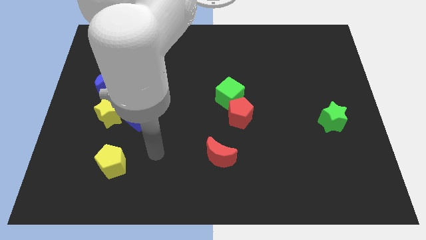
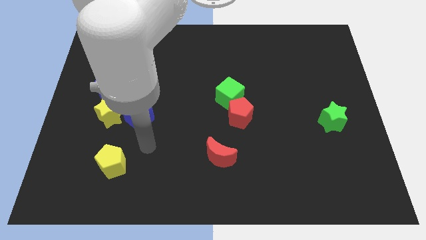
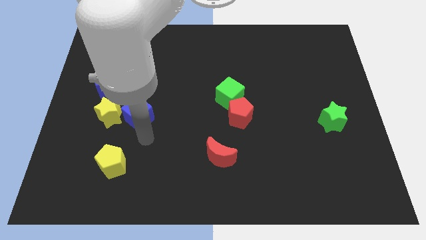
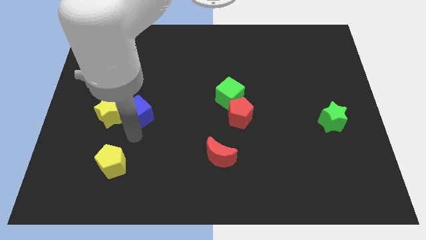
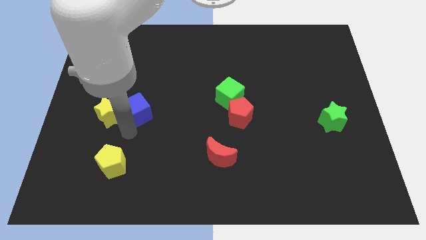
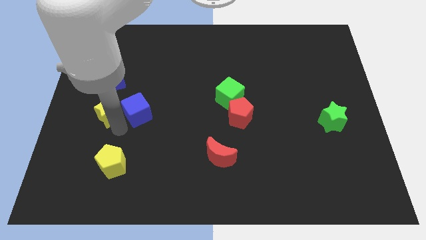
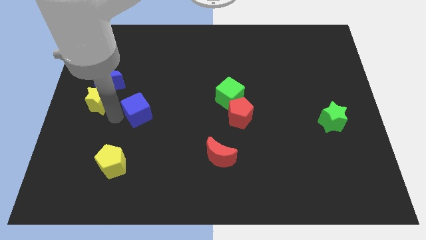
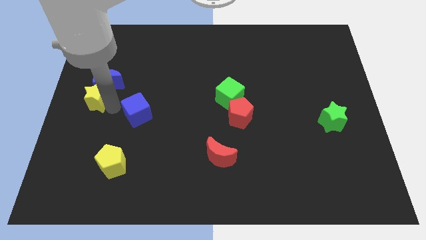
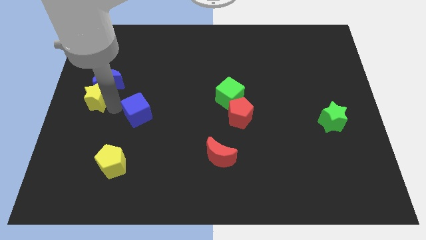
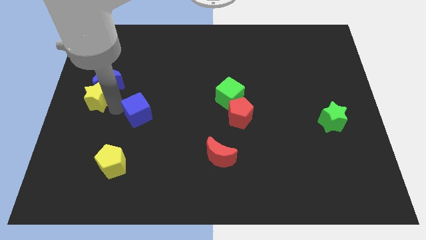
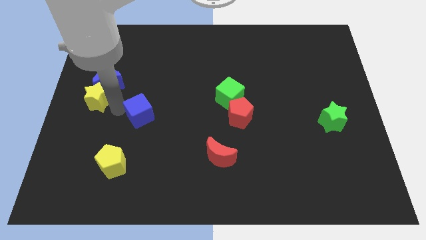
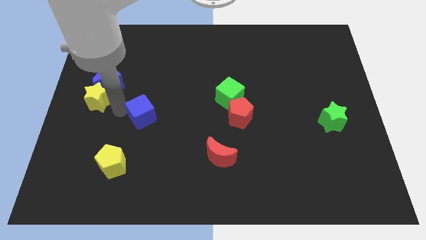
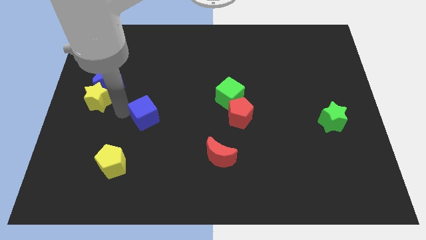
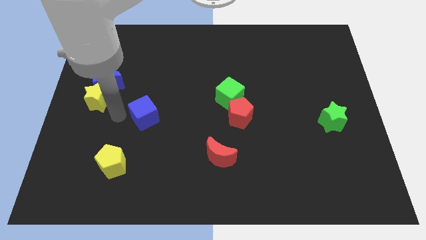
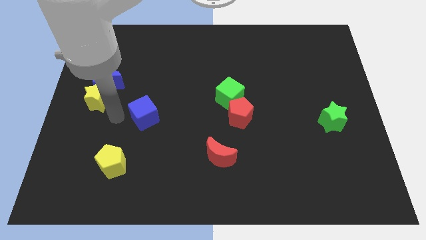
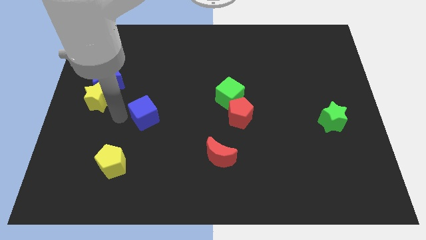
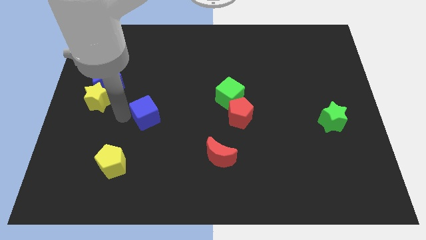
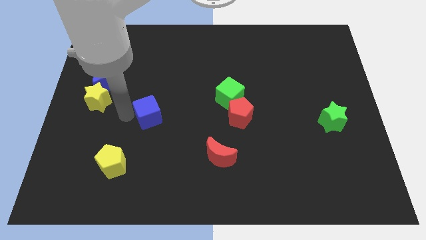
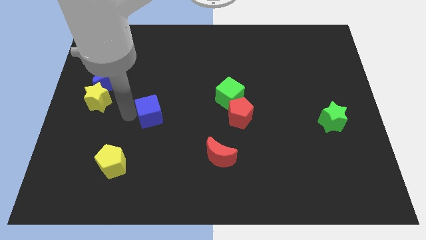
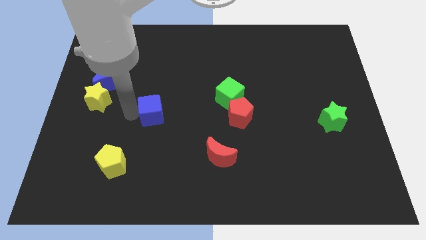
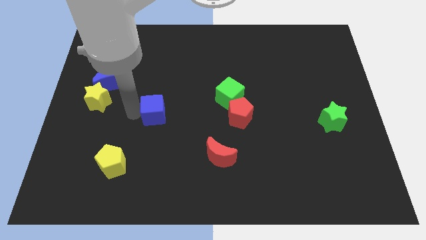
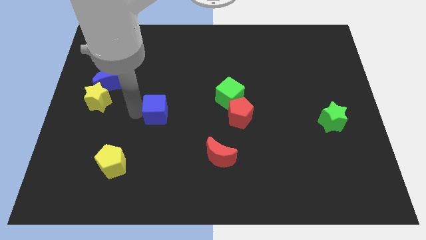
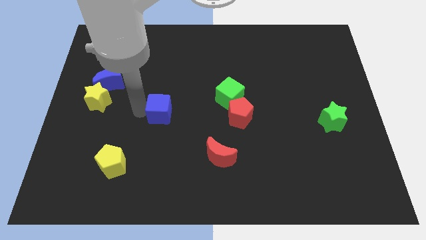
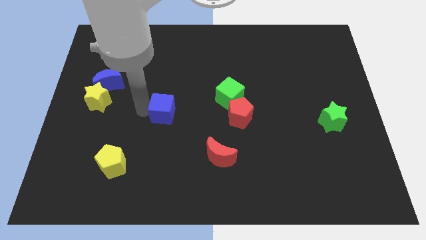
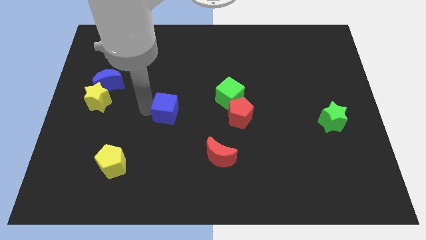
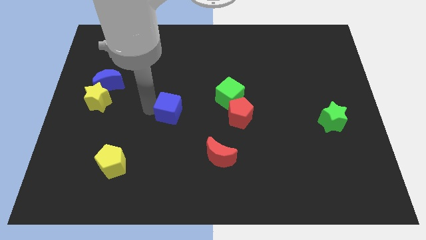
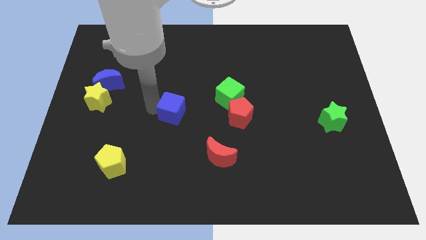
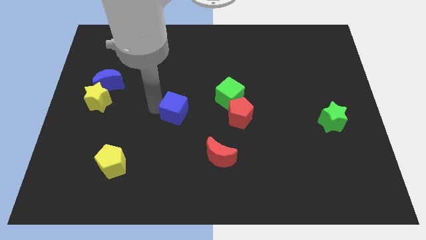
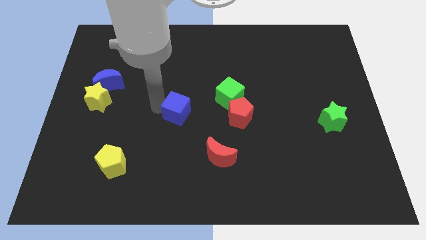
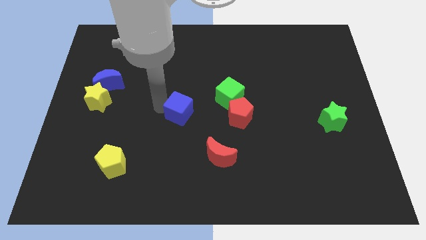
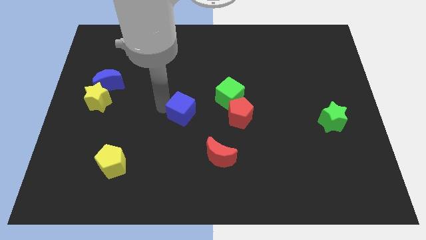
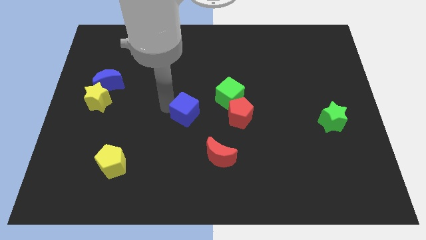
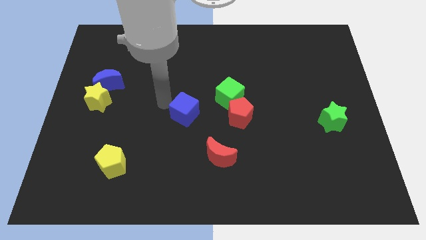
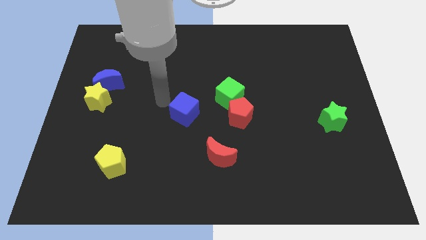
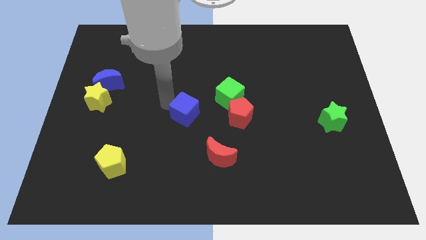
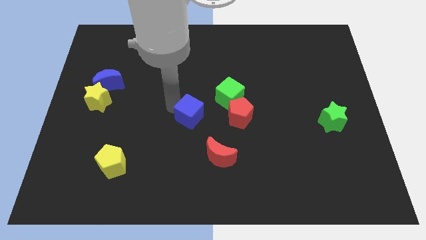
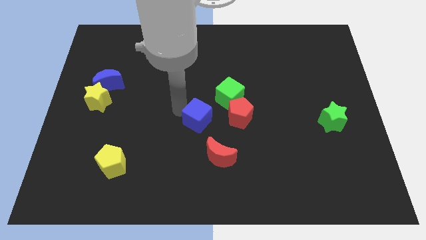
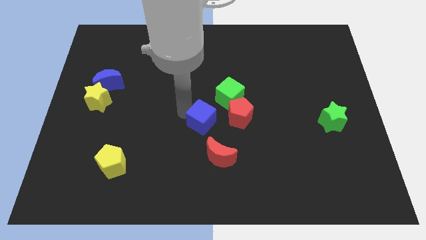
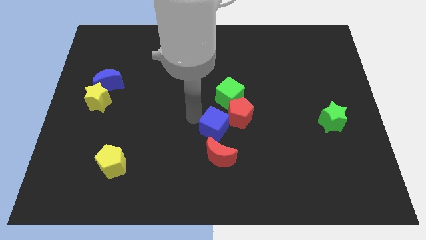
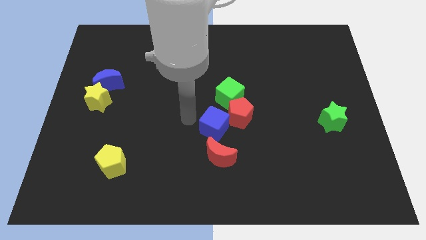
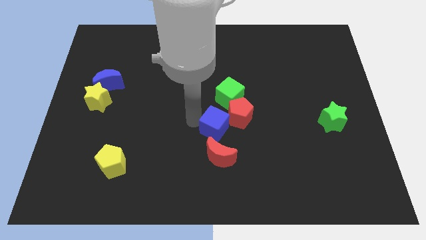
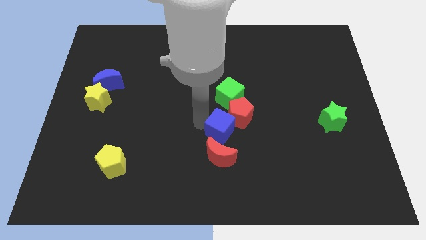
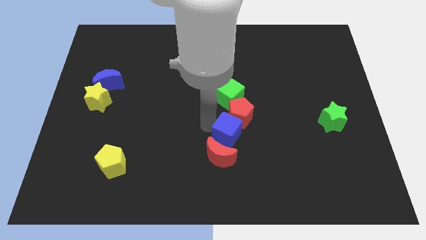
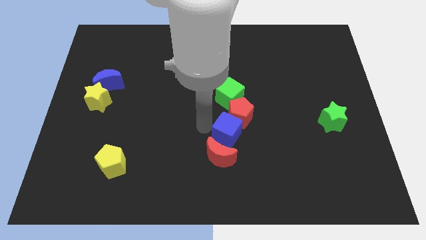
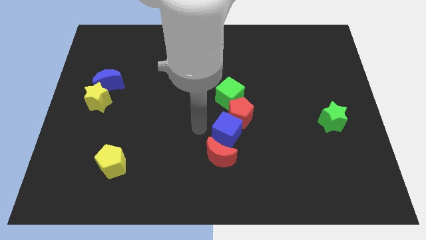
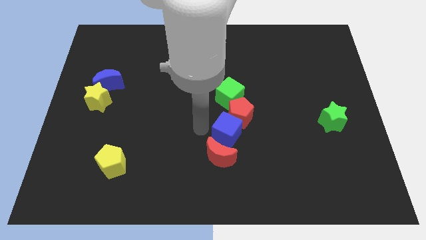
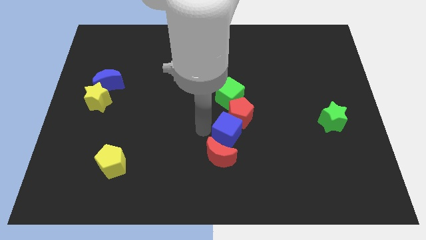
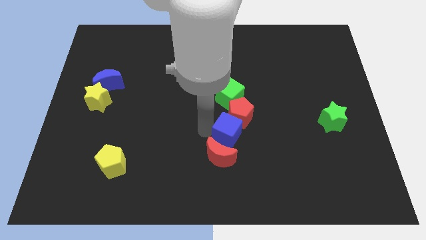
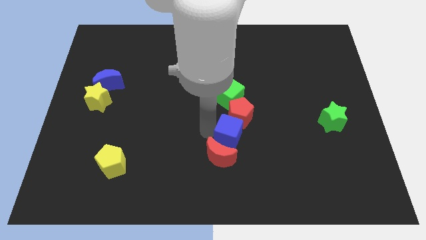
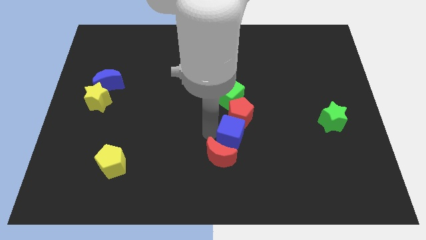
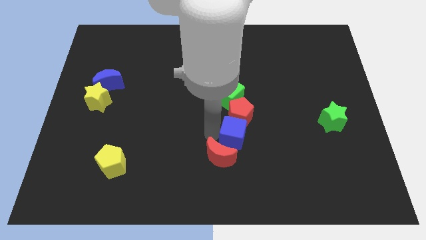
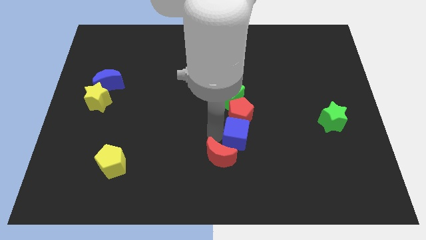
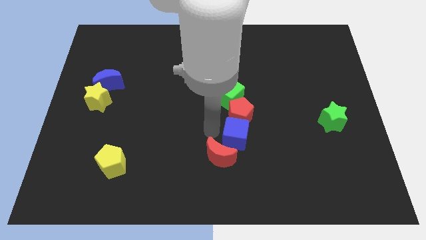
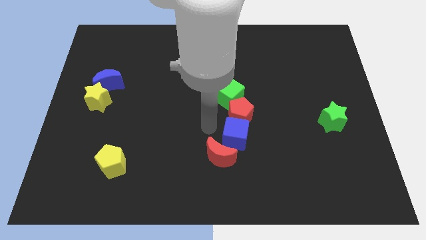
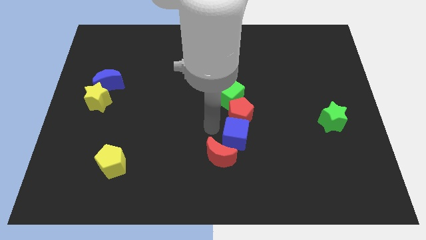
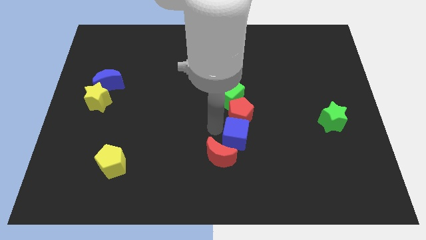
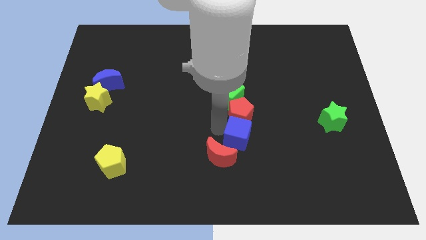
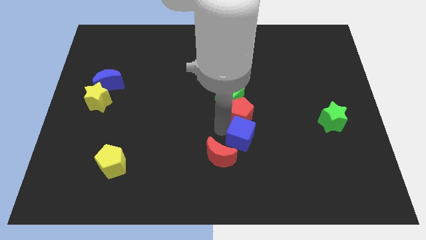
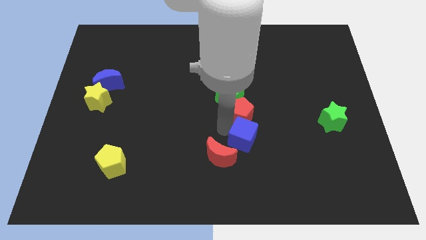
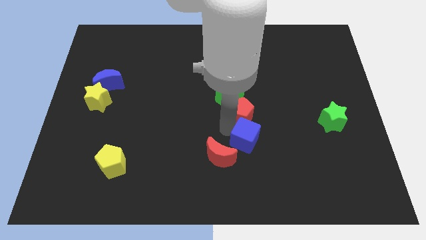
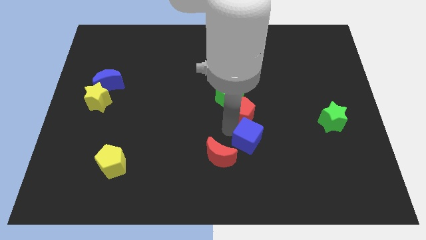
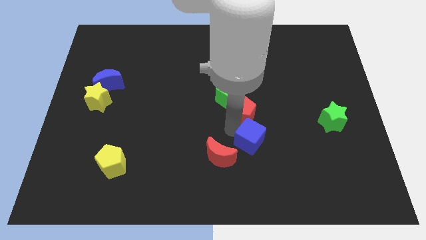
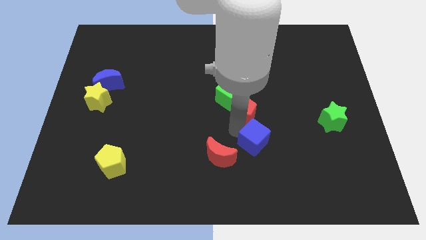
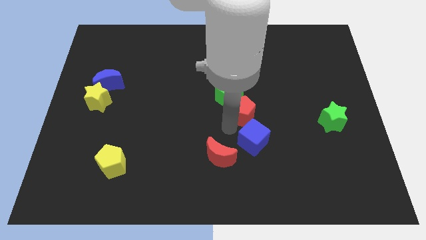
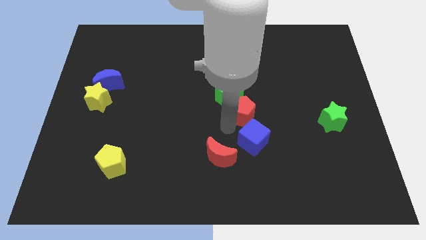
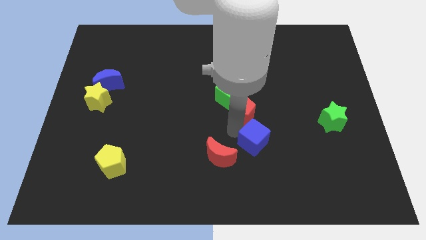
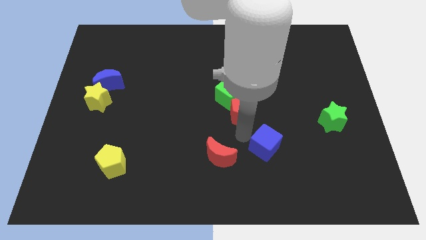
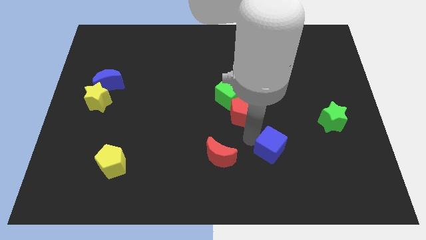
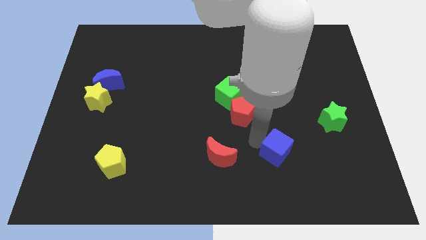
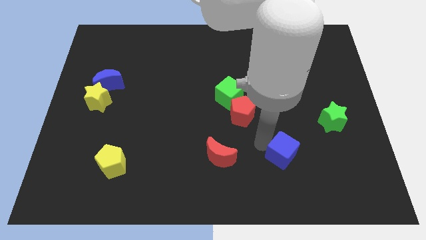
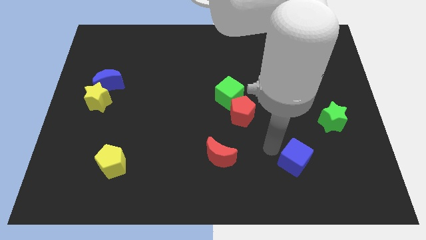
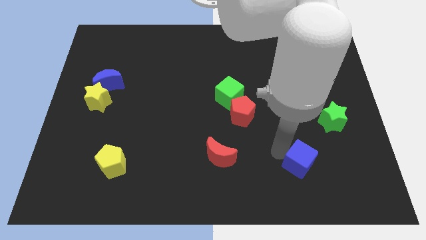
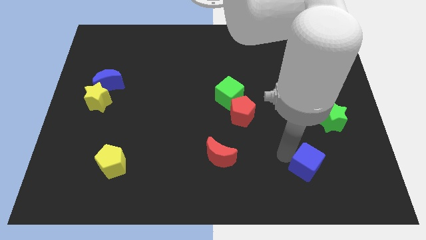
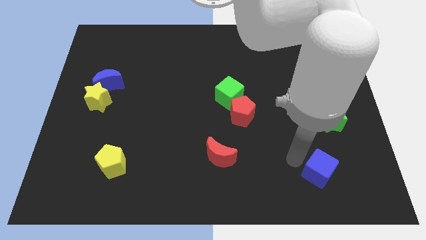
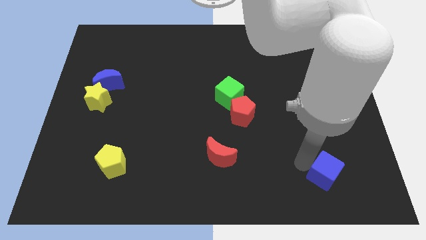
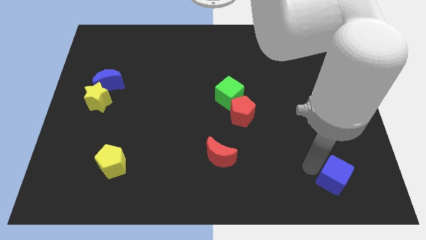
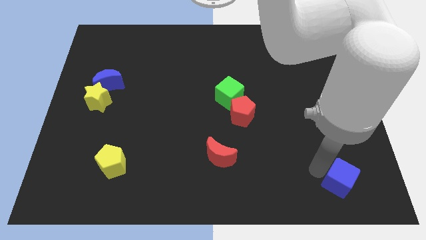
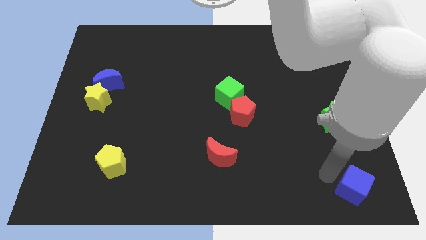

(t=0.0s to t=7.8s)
slide the blue cube to the bottom right of the board
